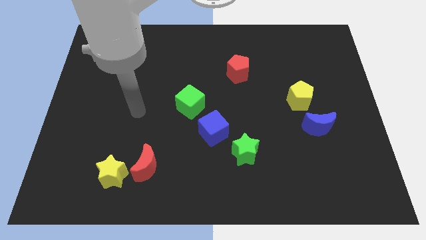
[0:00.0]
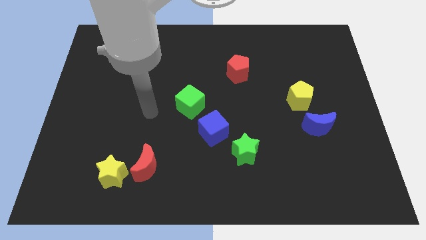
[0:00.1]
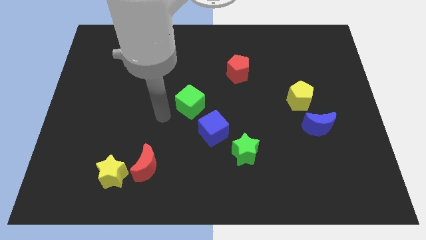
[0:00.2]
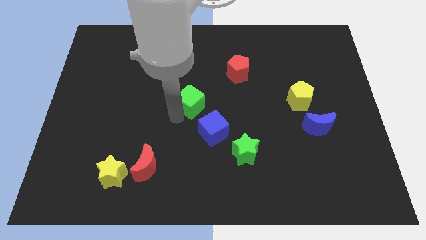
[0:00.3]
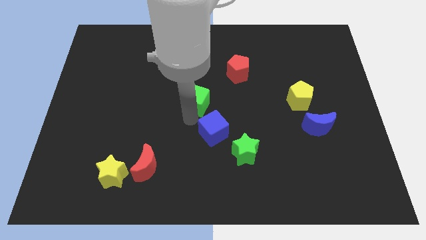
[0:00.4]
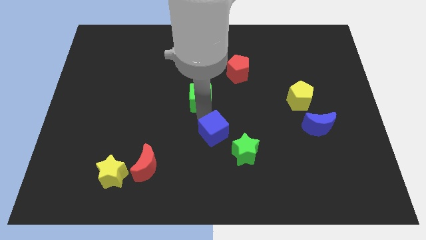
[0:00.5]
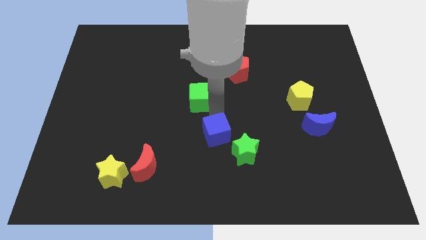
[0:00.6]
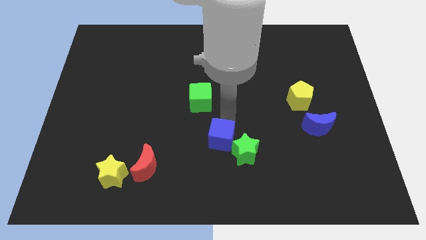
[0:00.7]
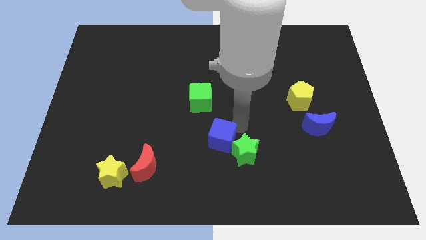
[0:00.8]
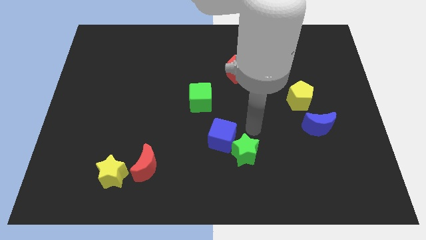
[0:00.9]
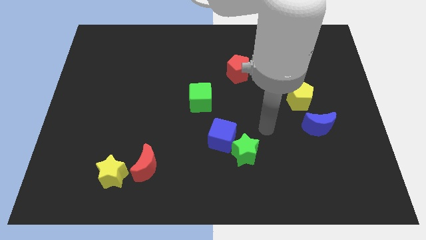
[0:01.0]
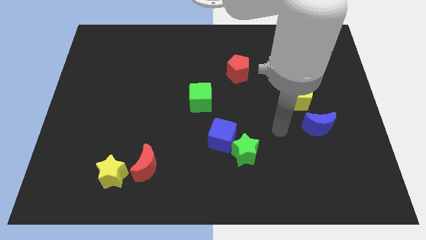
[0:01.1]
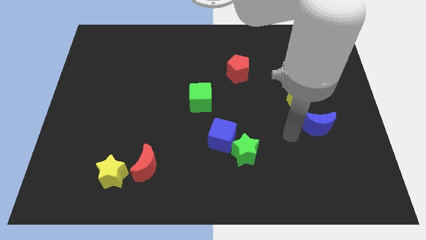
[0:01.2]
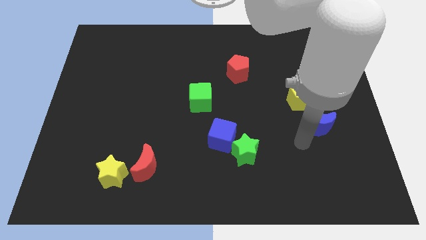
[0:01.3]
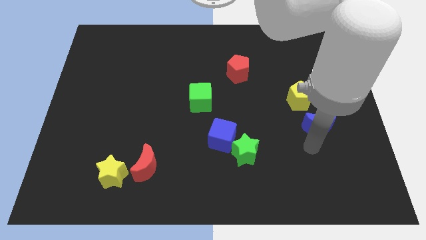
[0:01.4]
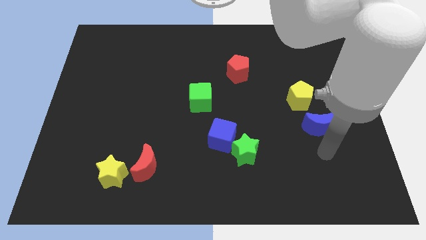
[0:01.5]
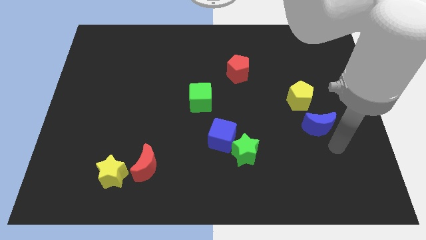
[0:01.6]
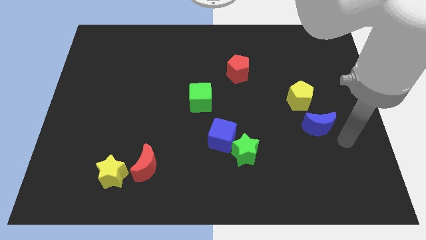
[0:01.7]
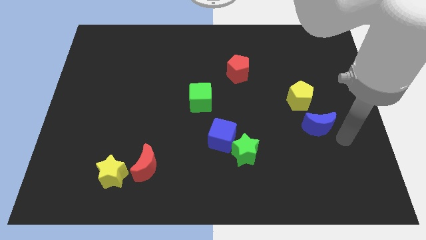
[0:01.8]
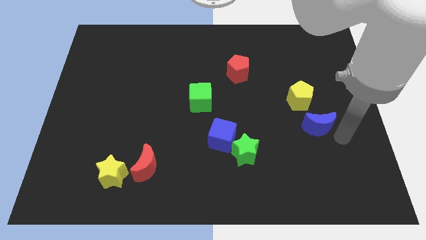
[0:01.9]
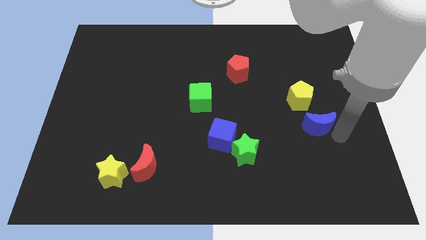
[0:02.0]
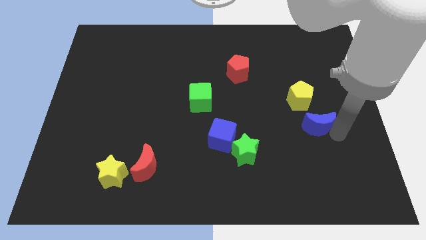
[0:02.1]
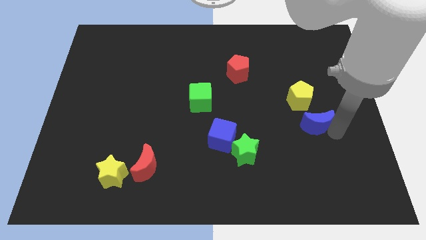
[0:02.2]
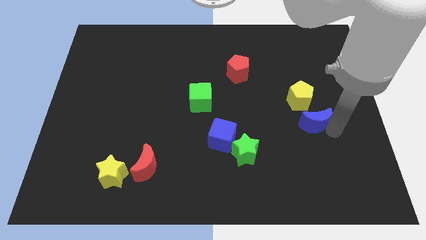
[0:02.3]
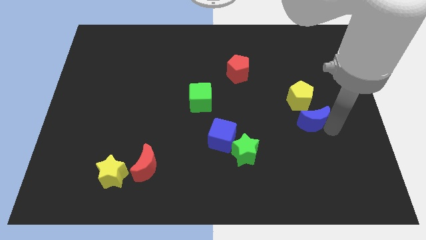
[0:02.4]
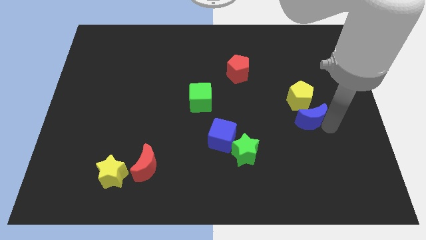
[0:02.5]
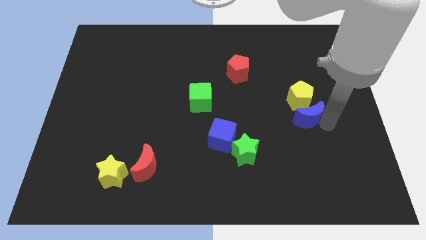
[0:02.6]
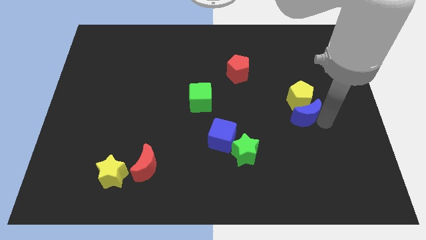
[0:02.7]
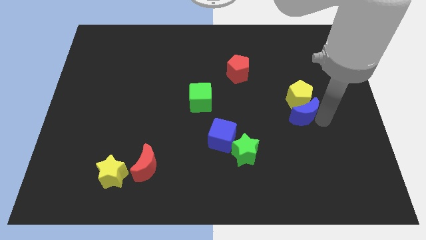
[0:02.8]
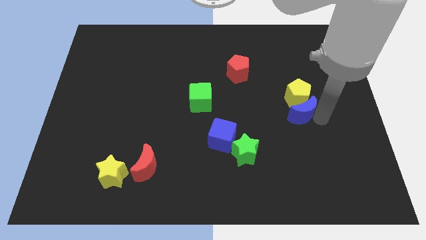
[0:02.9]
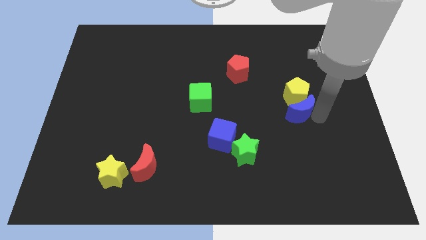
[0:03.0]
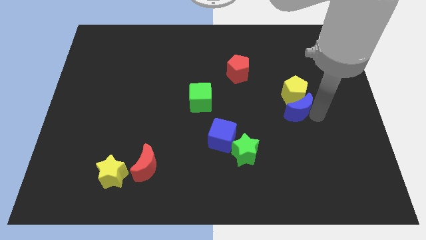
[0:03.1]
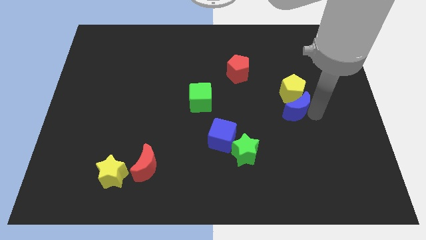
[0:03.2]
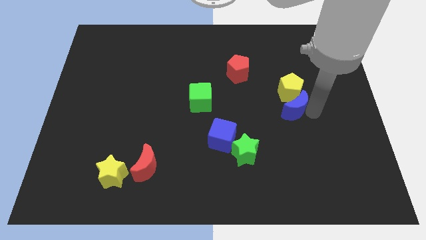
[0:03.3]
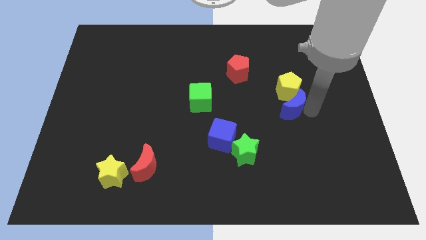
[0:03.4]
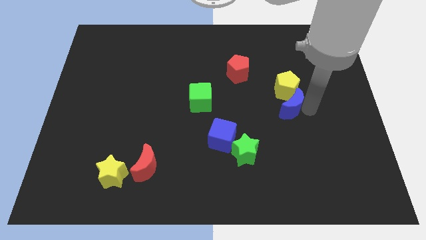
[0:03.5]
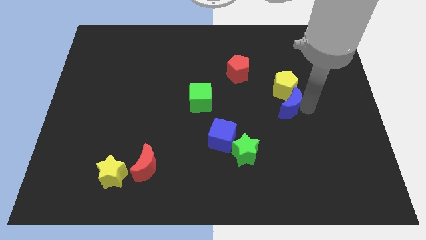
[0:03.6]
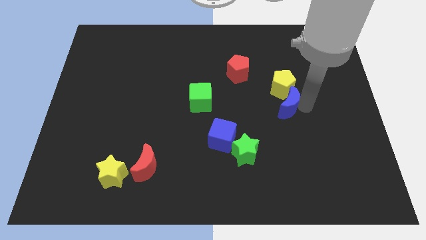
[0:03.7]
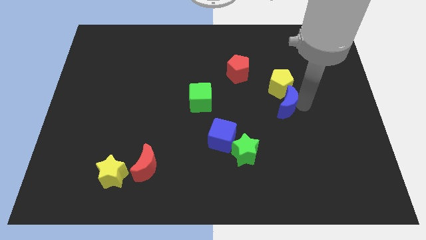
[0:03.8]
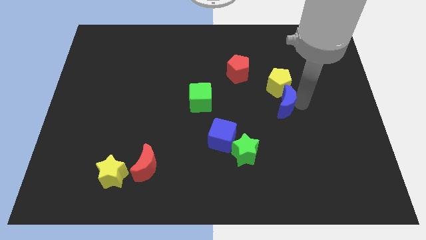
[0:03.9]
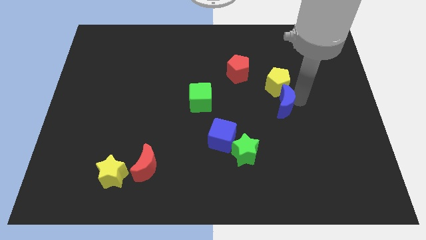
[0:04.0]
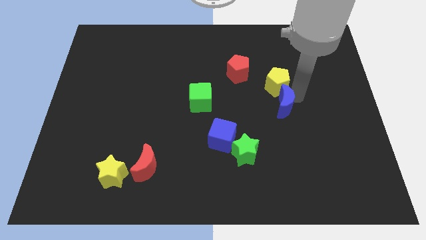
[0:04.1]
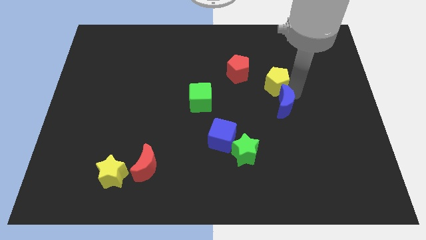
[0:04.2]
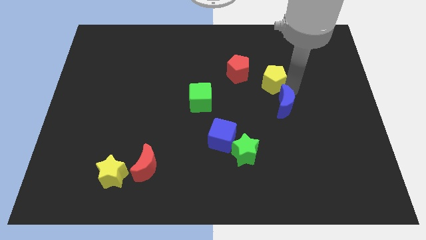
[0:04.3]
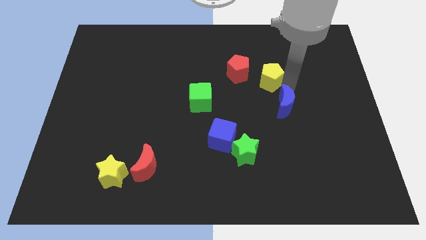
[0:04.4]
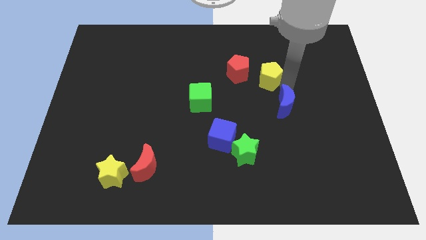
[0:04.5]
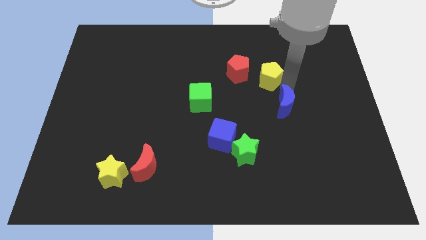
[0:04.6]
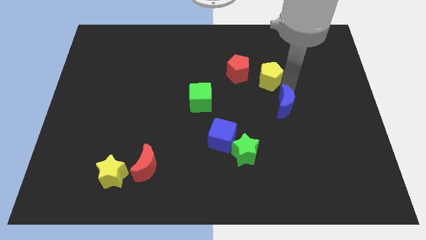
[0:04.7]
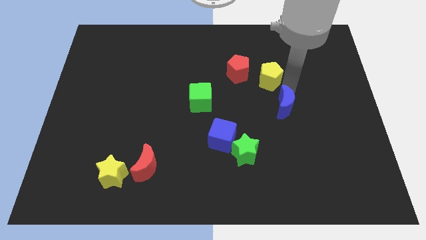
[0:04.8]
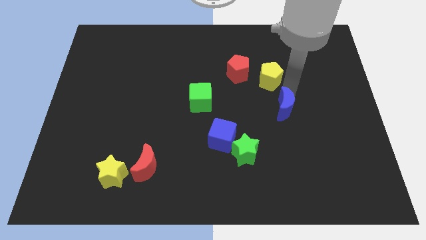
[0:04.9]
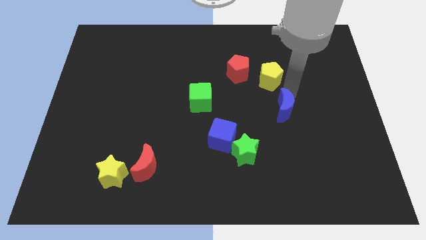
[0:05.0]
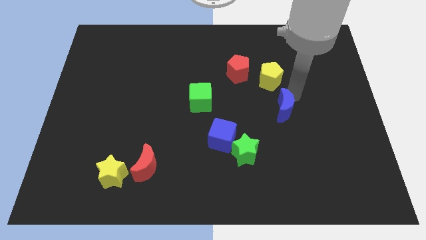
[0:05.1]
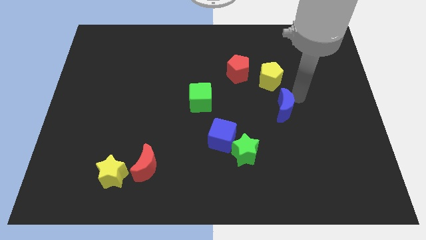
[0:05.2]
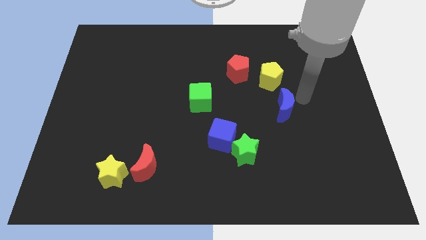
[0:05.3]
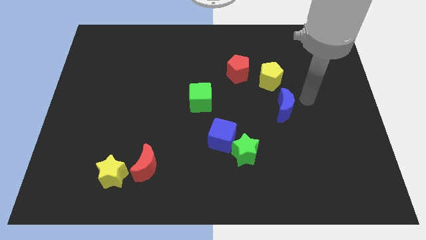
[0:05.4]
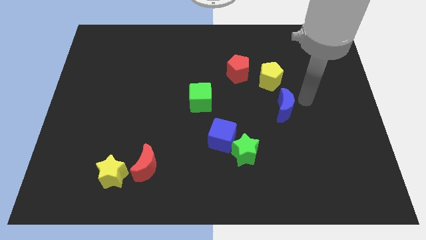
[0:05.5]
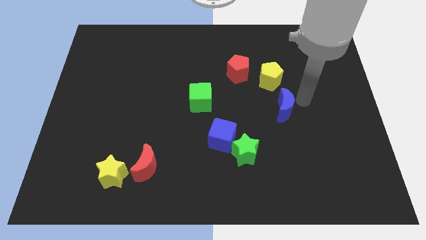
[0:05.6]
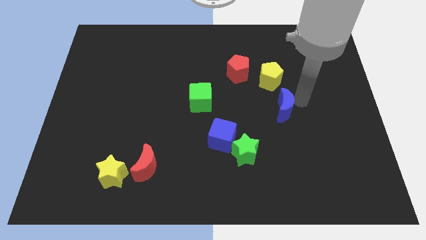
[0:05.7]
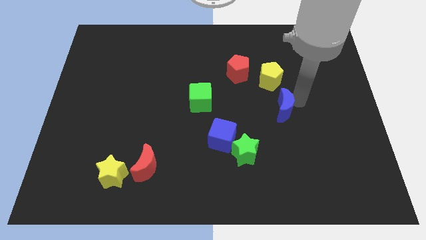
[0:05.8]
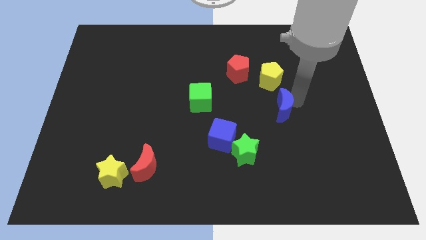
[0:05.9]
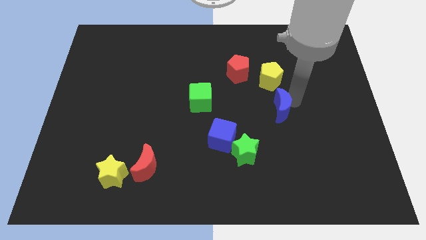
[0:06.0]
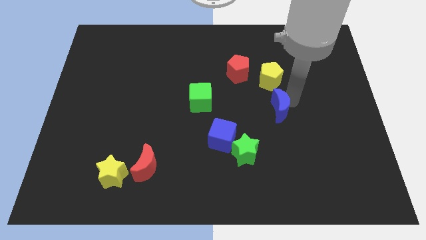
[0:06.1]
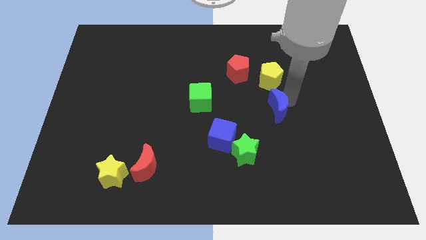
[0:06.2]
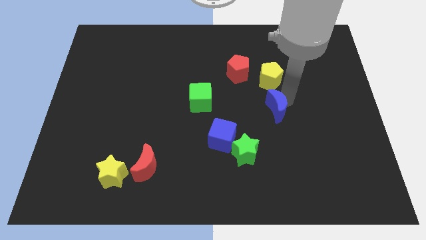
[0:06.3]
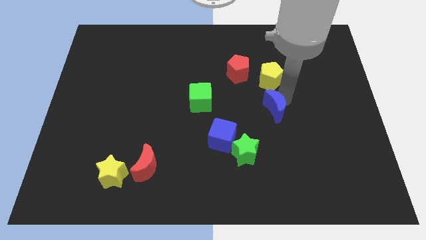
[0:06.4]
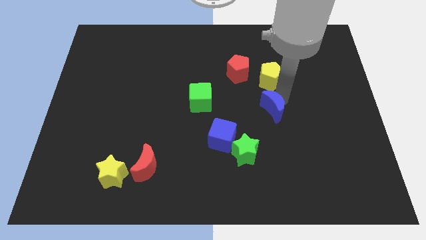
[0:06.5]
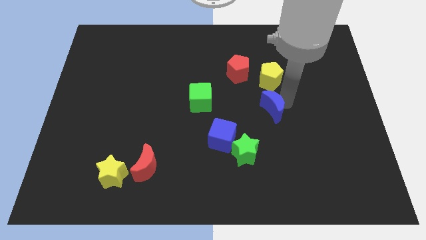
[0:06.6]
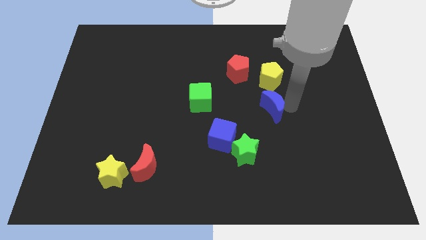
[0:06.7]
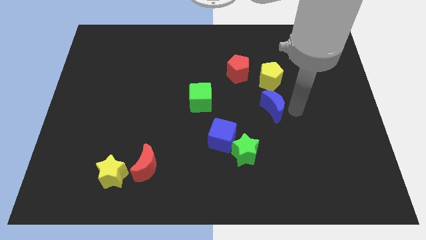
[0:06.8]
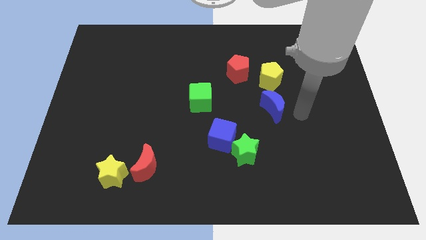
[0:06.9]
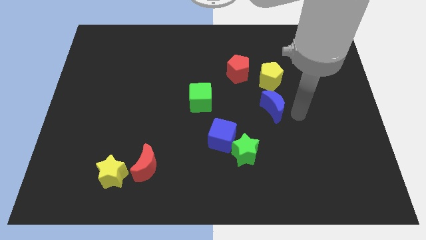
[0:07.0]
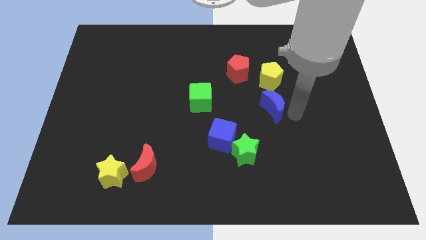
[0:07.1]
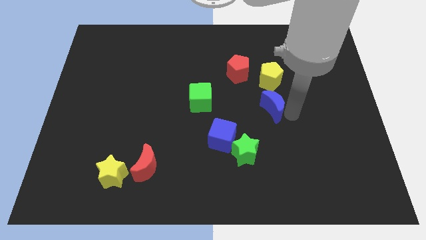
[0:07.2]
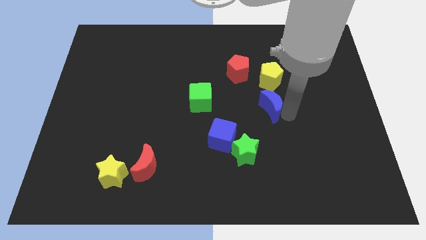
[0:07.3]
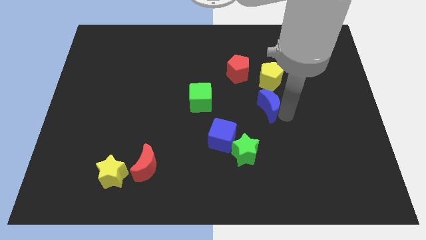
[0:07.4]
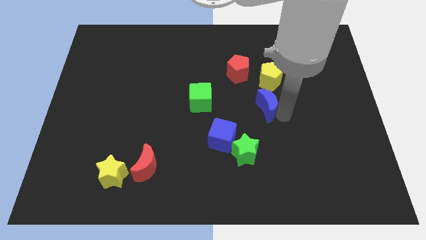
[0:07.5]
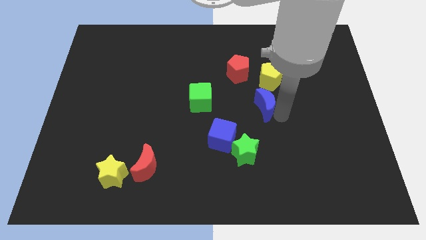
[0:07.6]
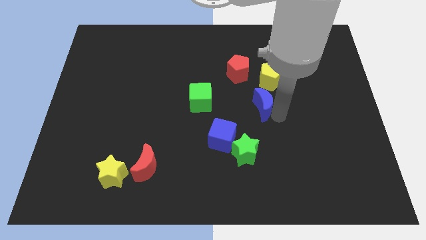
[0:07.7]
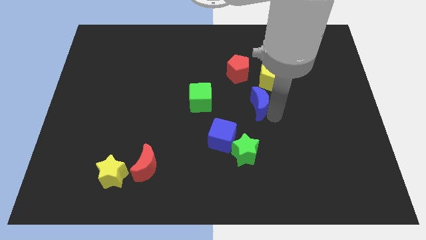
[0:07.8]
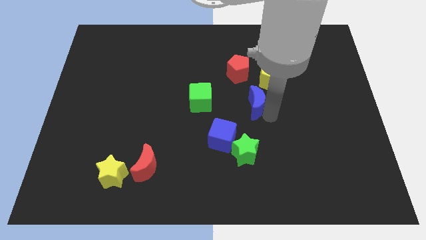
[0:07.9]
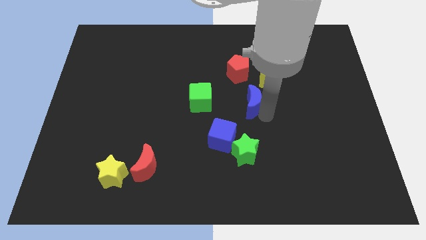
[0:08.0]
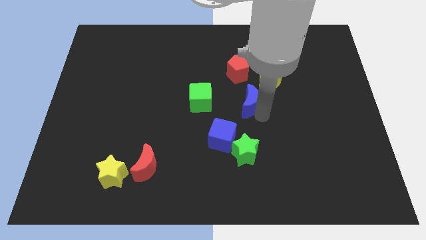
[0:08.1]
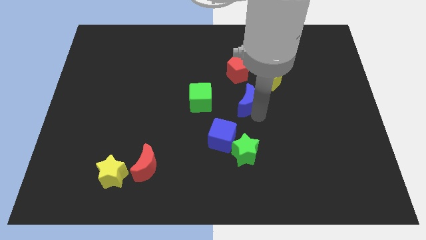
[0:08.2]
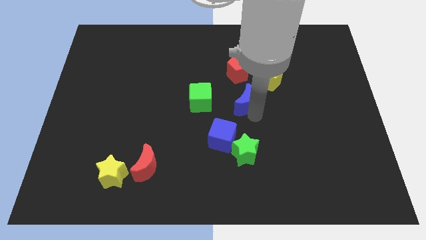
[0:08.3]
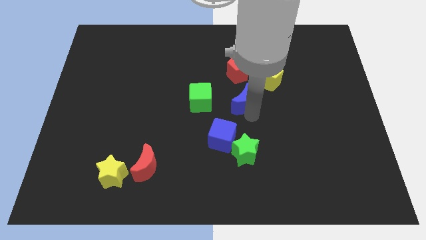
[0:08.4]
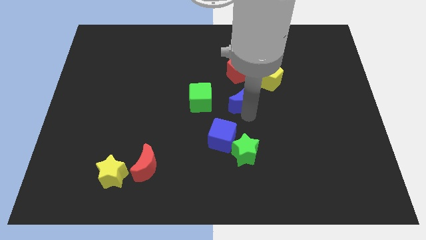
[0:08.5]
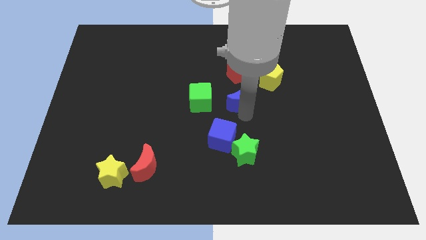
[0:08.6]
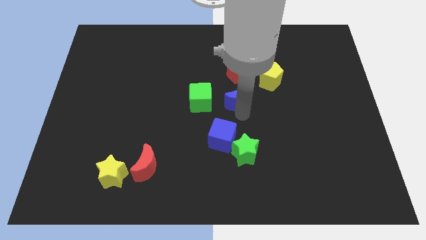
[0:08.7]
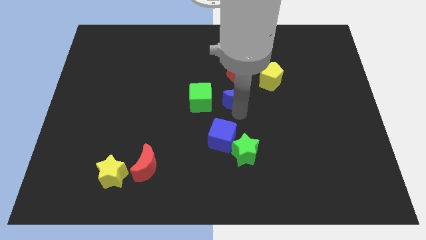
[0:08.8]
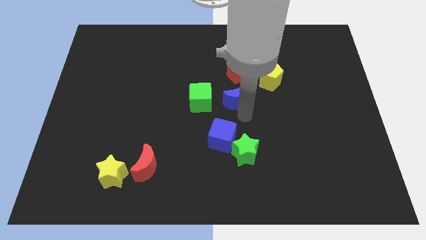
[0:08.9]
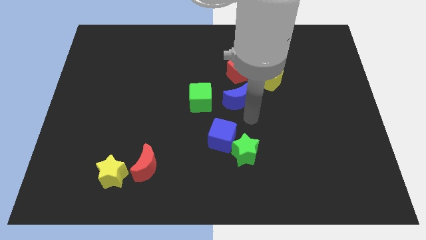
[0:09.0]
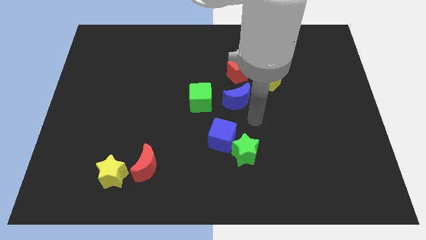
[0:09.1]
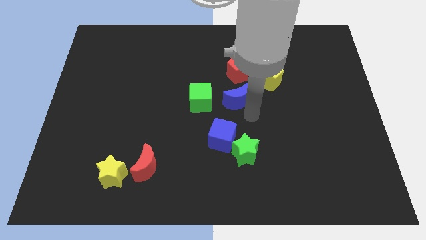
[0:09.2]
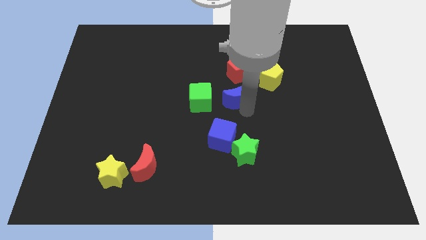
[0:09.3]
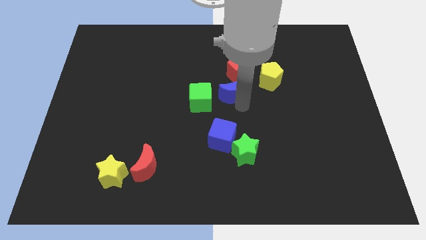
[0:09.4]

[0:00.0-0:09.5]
slide the blue moon to the top right side of the green cube
